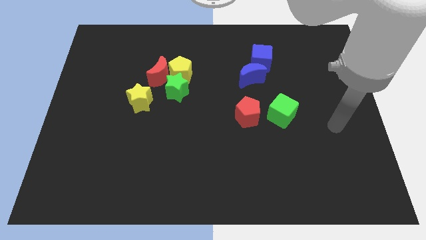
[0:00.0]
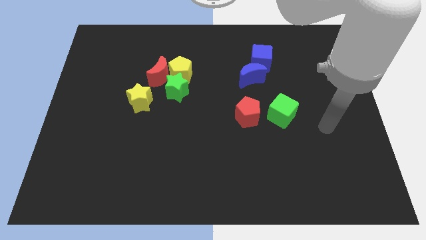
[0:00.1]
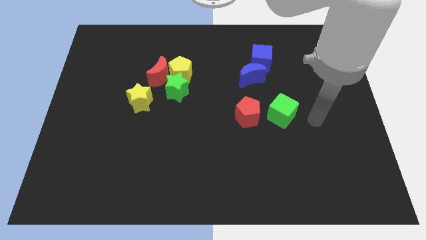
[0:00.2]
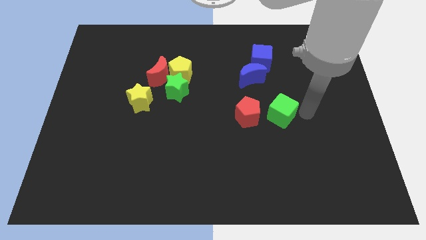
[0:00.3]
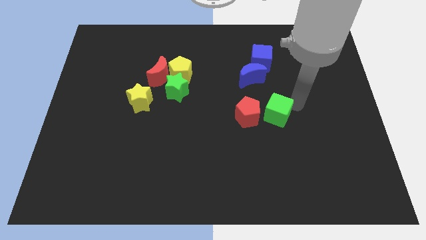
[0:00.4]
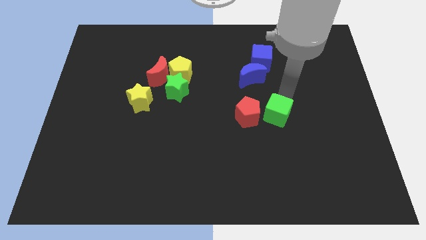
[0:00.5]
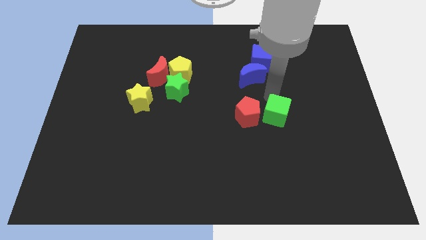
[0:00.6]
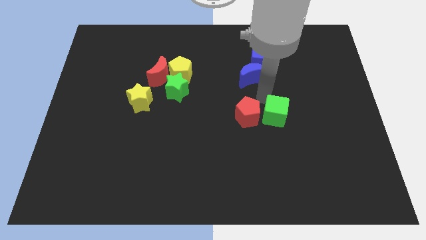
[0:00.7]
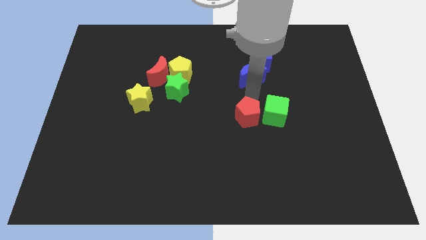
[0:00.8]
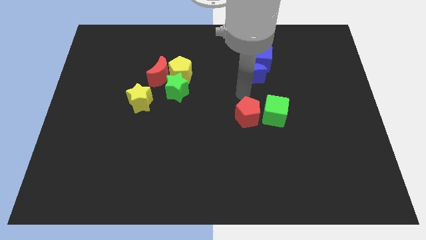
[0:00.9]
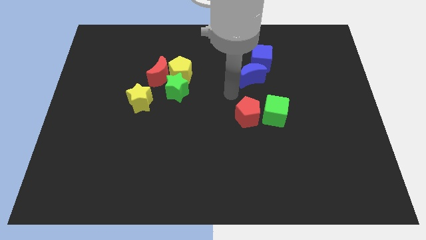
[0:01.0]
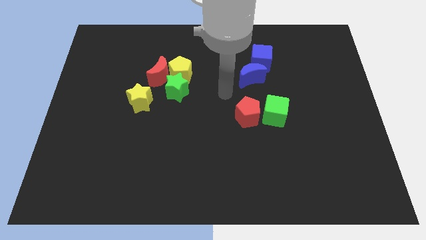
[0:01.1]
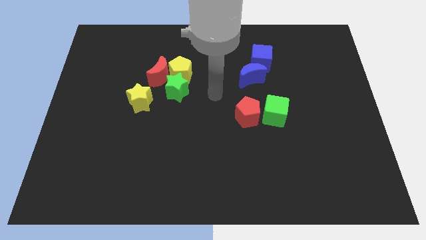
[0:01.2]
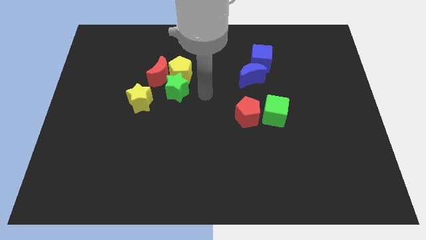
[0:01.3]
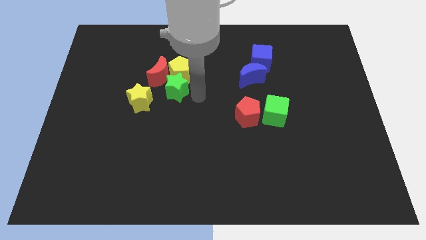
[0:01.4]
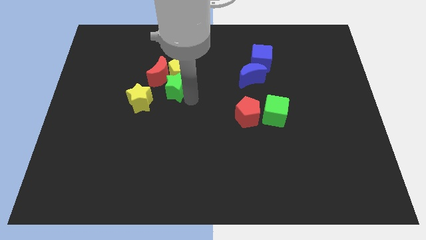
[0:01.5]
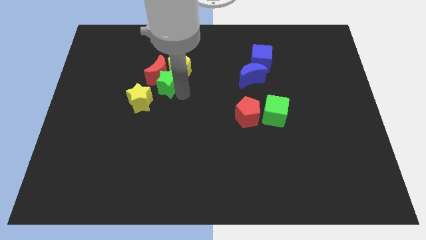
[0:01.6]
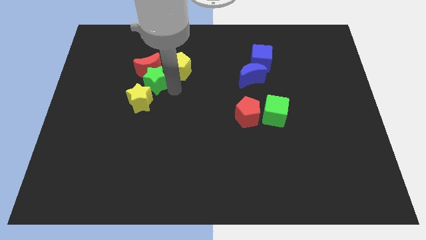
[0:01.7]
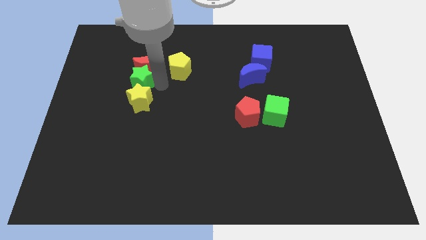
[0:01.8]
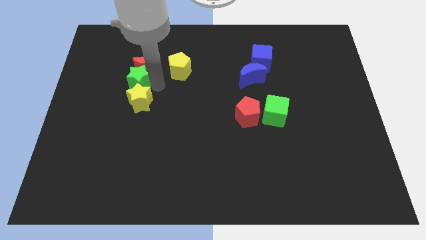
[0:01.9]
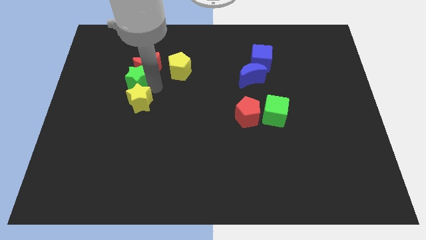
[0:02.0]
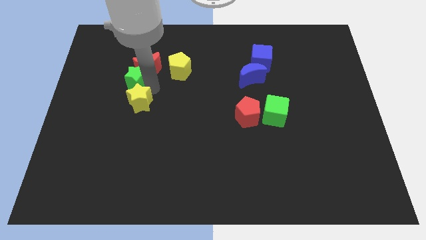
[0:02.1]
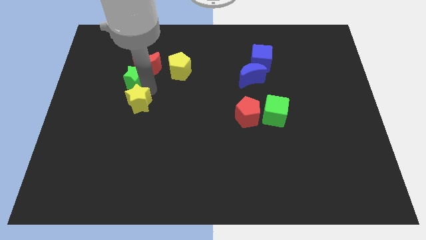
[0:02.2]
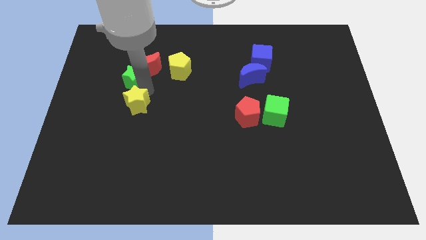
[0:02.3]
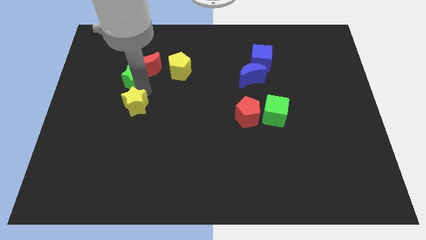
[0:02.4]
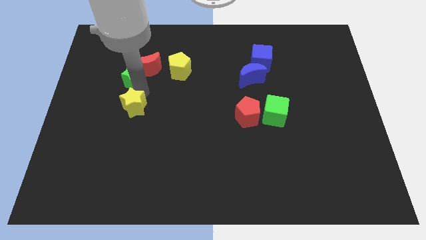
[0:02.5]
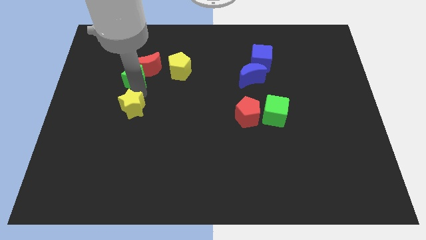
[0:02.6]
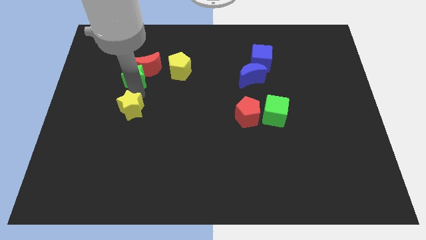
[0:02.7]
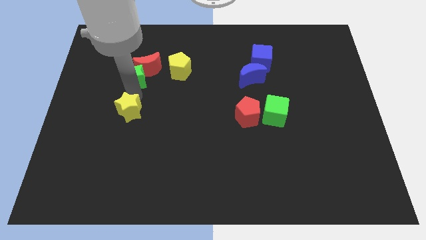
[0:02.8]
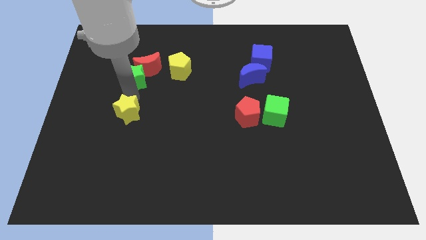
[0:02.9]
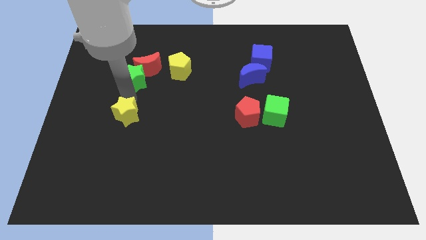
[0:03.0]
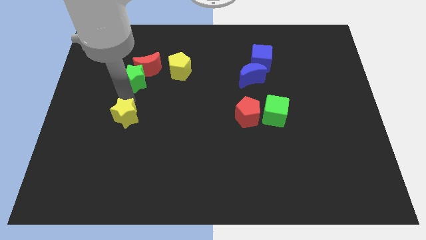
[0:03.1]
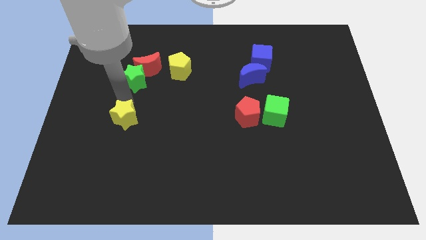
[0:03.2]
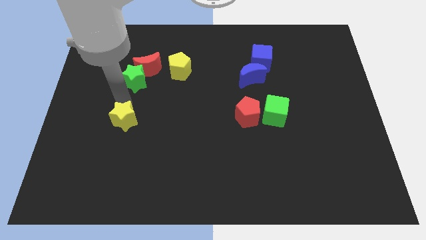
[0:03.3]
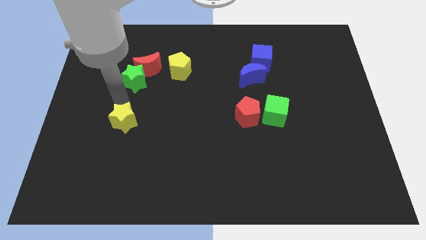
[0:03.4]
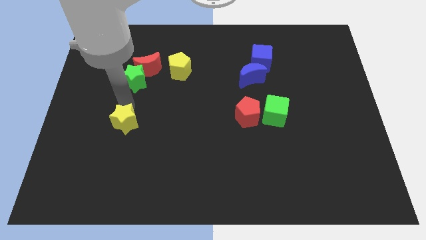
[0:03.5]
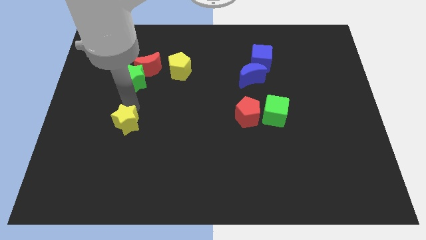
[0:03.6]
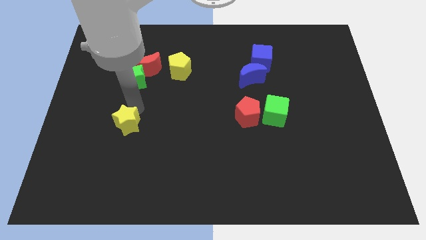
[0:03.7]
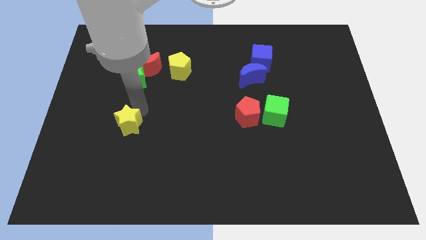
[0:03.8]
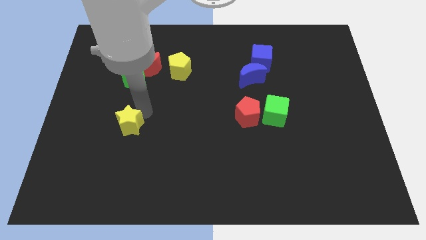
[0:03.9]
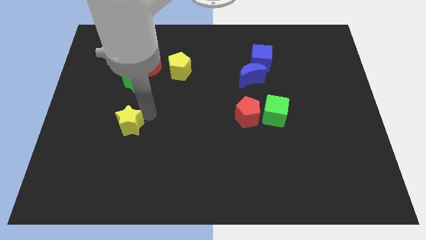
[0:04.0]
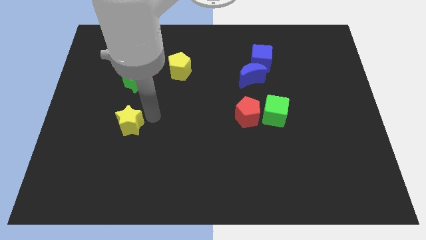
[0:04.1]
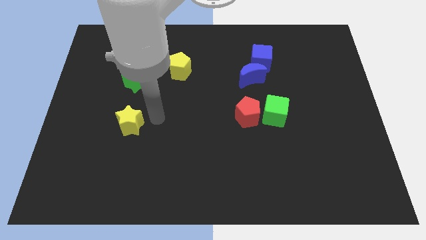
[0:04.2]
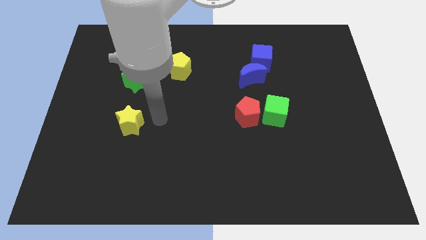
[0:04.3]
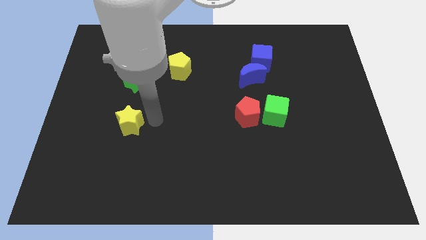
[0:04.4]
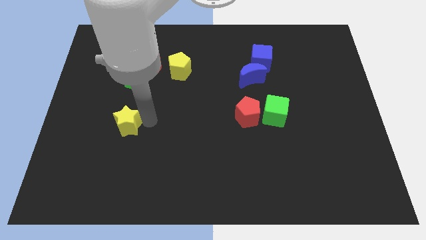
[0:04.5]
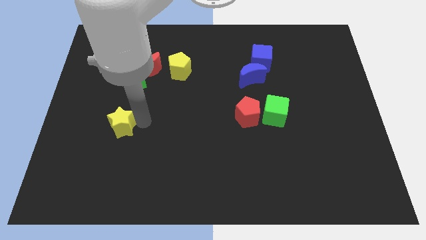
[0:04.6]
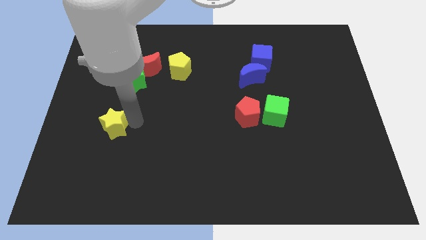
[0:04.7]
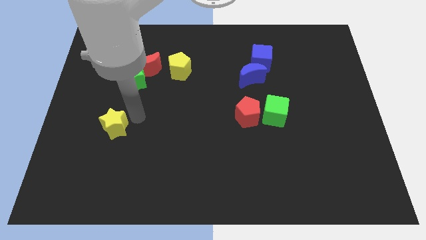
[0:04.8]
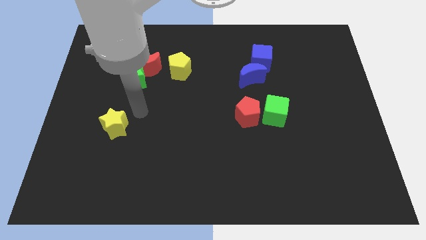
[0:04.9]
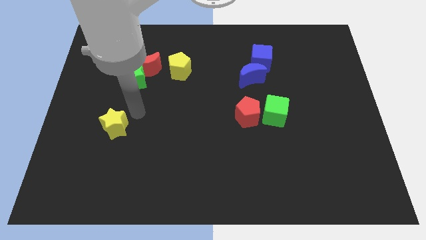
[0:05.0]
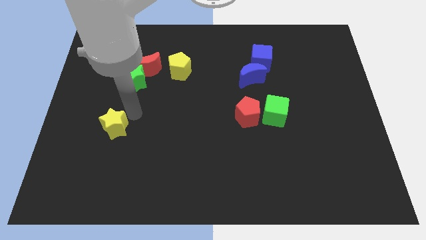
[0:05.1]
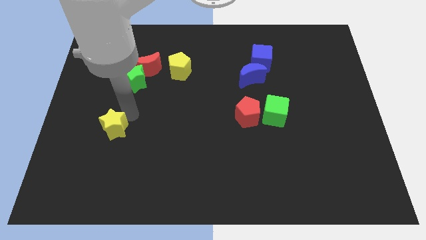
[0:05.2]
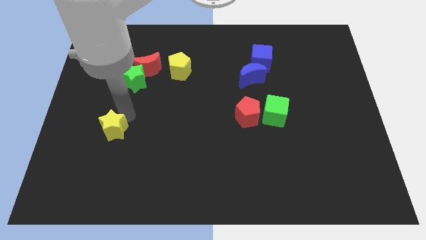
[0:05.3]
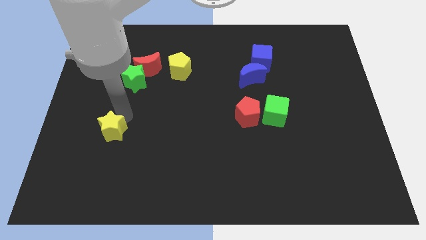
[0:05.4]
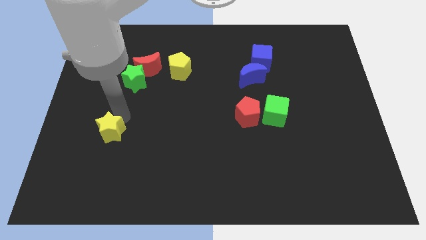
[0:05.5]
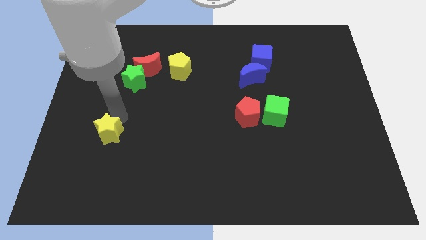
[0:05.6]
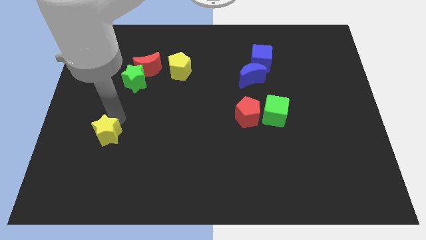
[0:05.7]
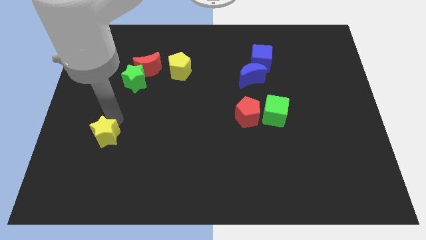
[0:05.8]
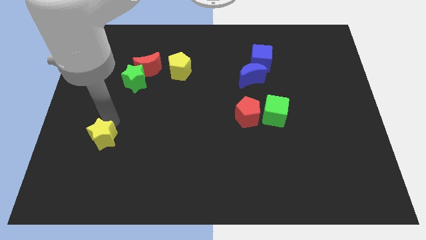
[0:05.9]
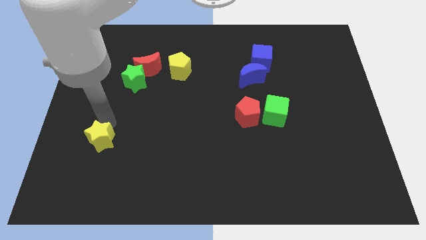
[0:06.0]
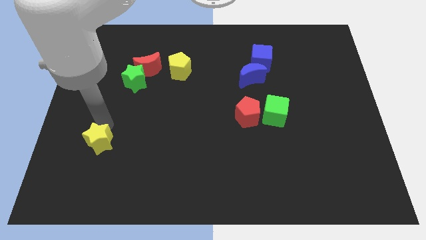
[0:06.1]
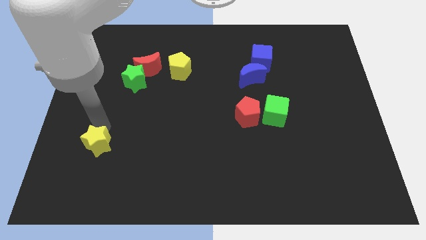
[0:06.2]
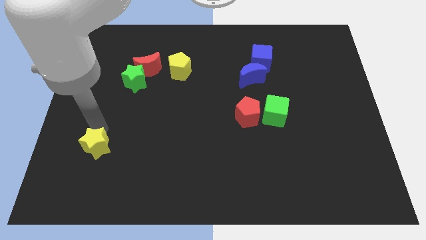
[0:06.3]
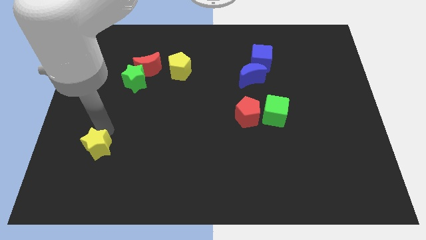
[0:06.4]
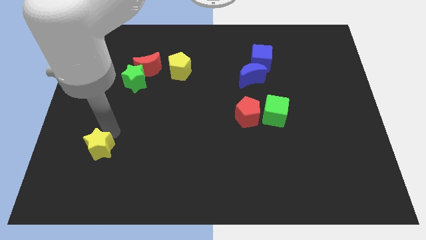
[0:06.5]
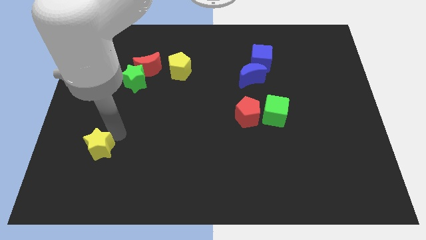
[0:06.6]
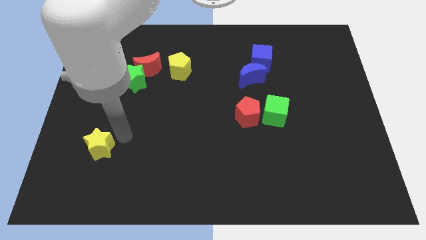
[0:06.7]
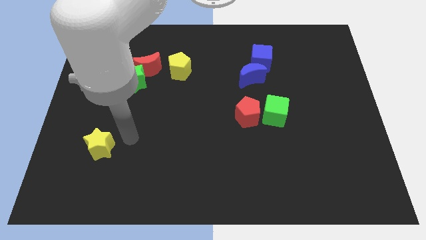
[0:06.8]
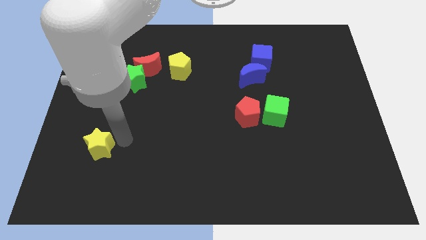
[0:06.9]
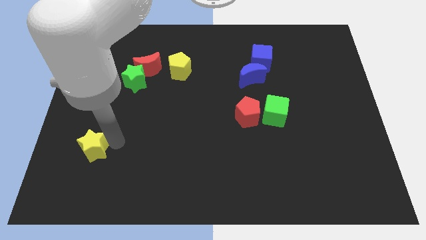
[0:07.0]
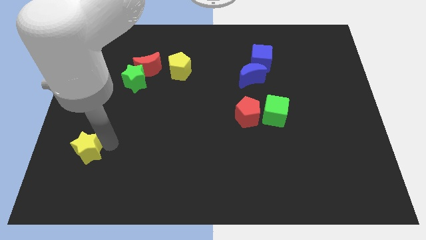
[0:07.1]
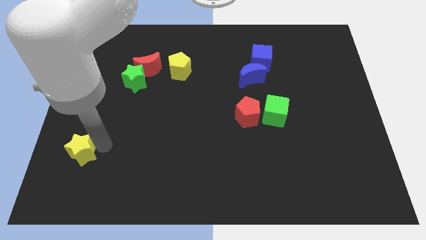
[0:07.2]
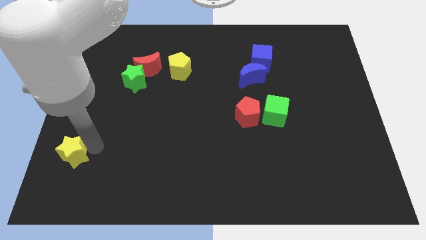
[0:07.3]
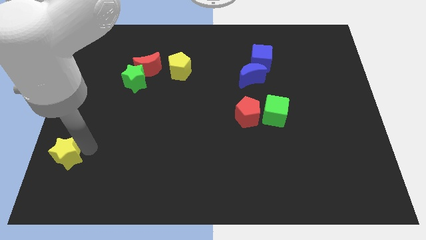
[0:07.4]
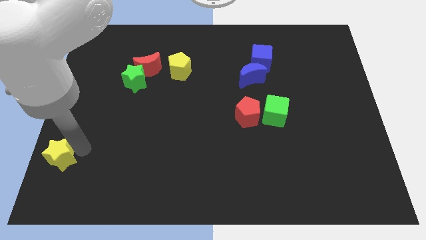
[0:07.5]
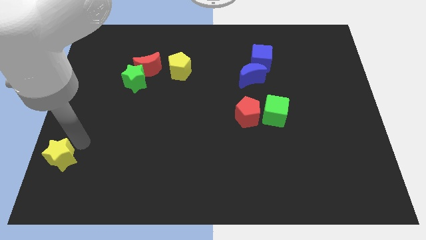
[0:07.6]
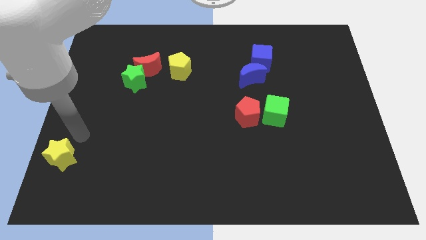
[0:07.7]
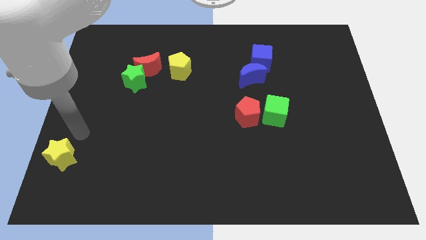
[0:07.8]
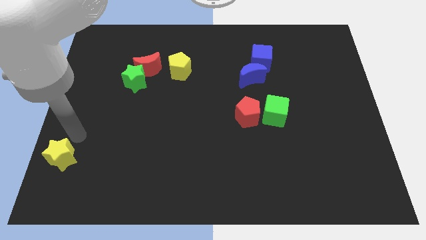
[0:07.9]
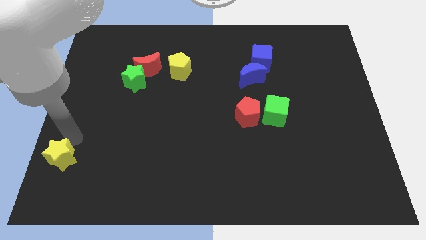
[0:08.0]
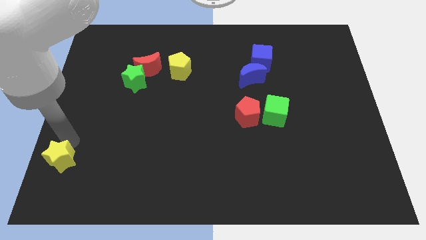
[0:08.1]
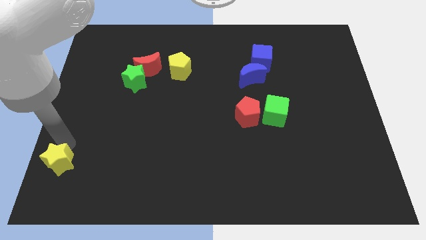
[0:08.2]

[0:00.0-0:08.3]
push the yellow star to the bottom left
